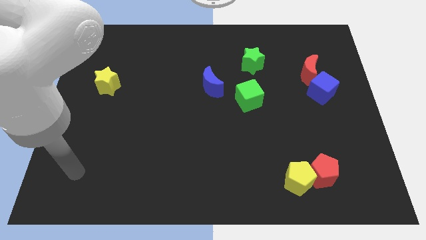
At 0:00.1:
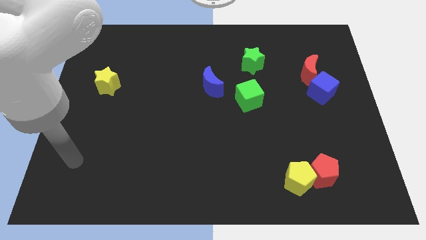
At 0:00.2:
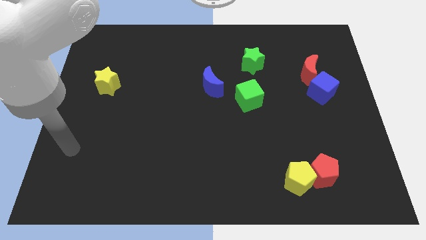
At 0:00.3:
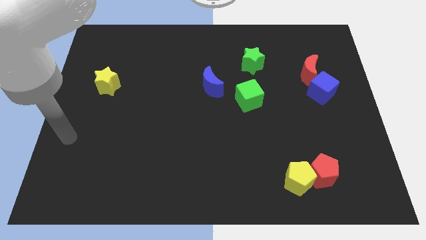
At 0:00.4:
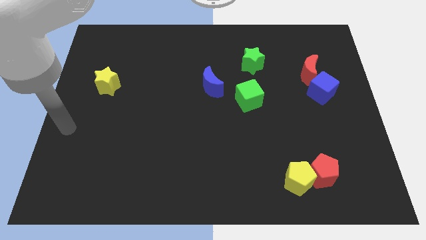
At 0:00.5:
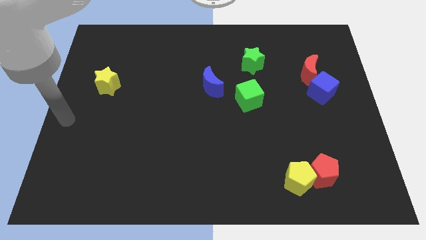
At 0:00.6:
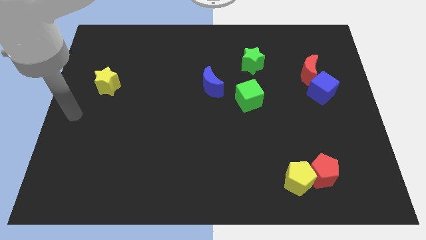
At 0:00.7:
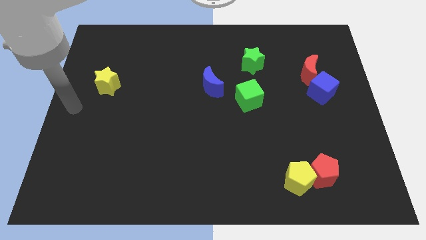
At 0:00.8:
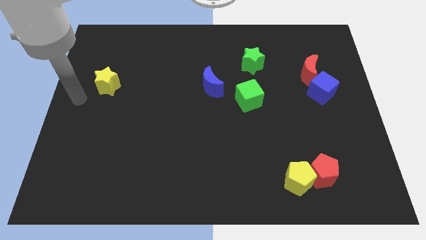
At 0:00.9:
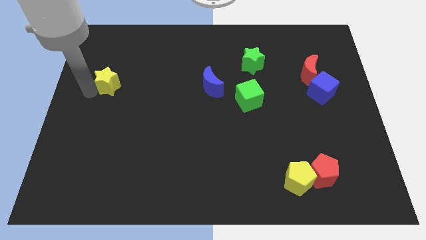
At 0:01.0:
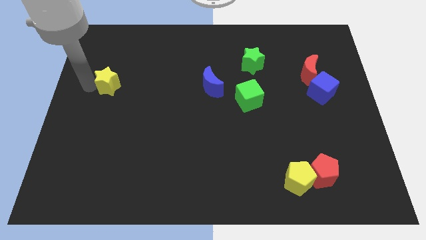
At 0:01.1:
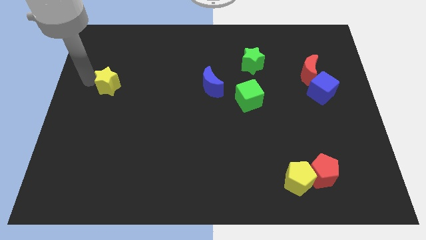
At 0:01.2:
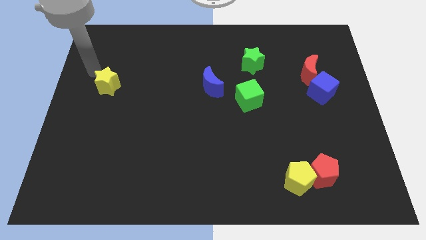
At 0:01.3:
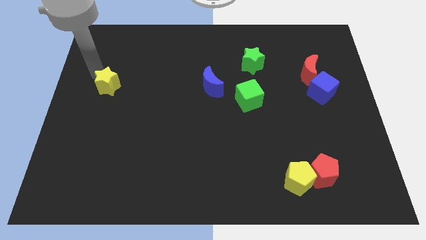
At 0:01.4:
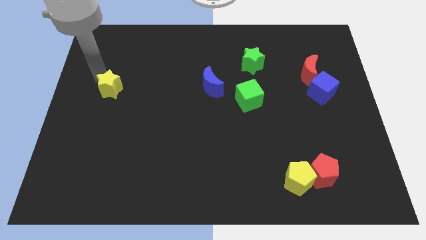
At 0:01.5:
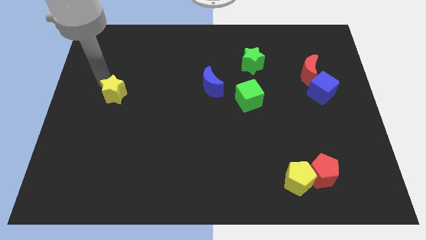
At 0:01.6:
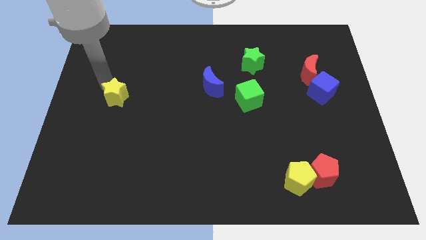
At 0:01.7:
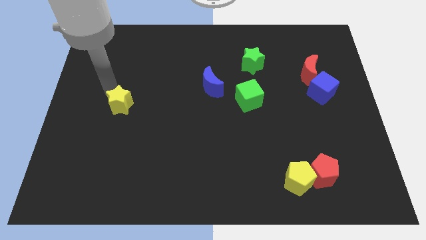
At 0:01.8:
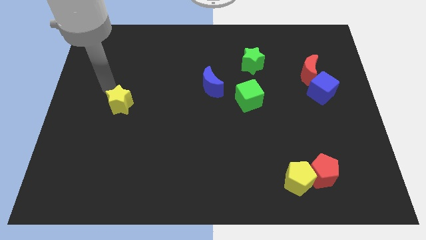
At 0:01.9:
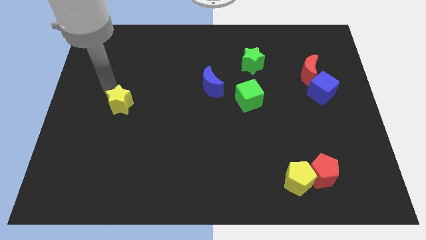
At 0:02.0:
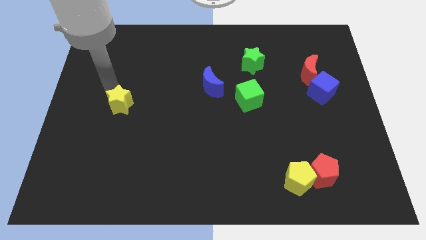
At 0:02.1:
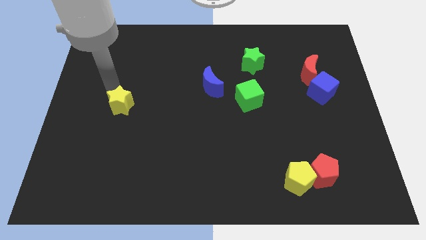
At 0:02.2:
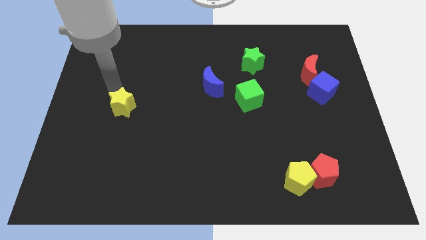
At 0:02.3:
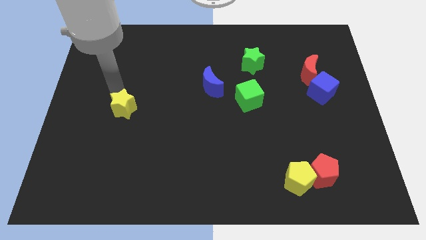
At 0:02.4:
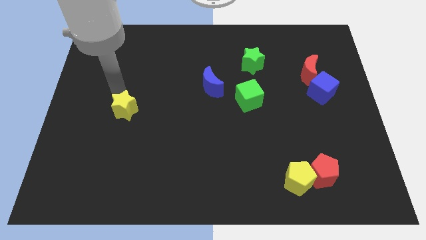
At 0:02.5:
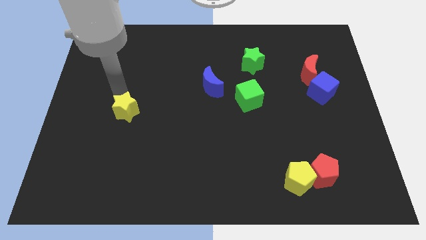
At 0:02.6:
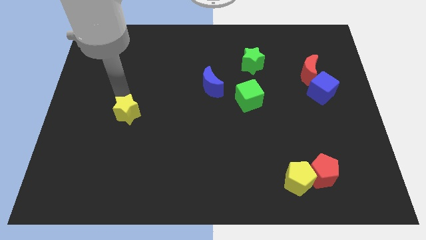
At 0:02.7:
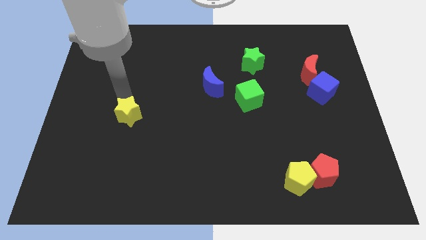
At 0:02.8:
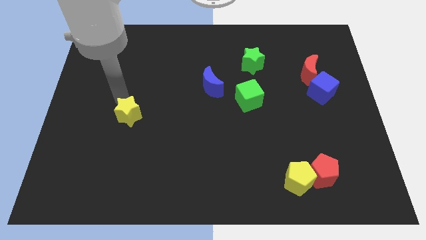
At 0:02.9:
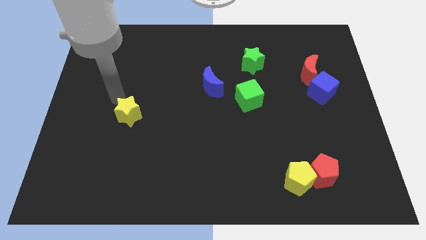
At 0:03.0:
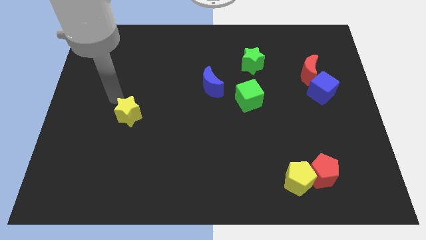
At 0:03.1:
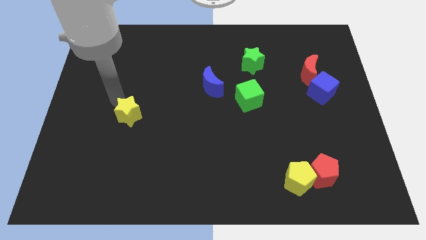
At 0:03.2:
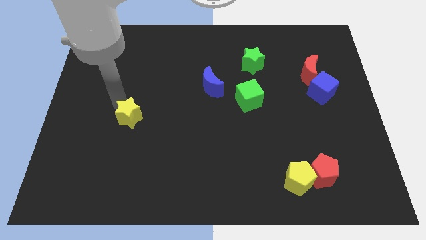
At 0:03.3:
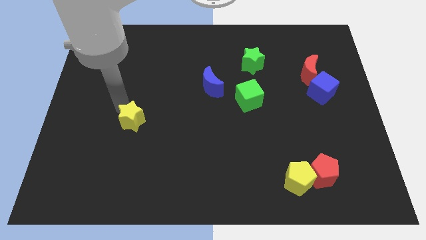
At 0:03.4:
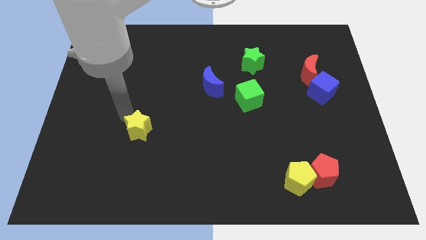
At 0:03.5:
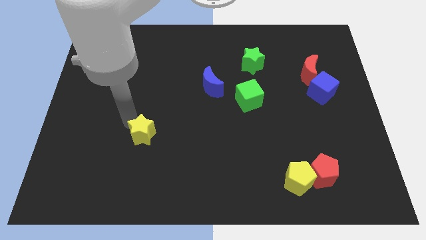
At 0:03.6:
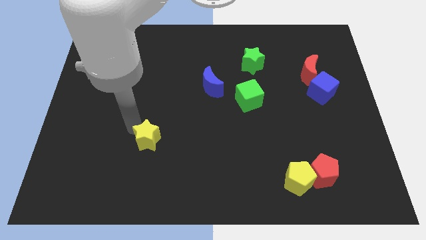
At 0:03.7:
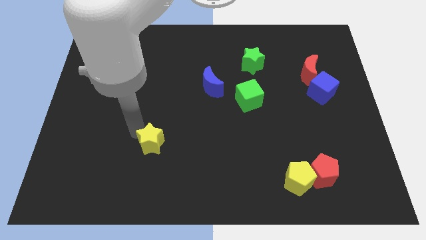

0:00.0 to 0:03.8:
push the yellow star diagonally downwards and to the right

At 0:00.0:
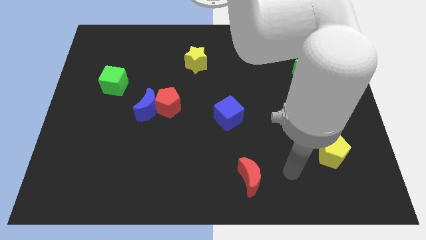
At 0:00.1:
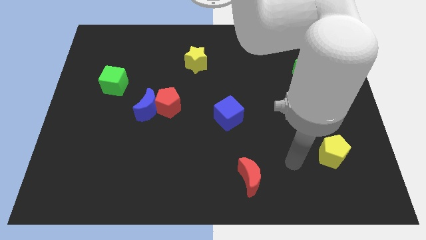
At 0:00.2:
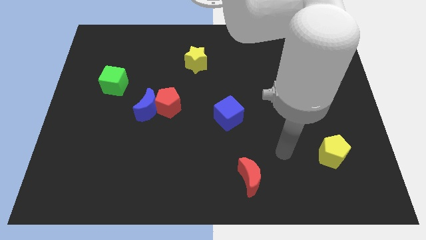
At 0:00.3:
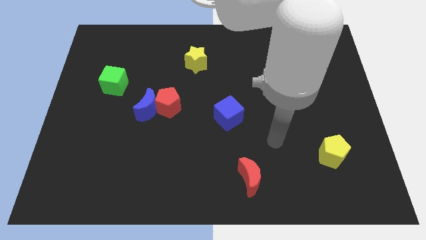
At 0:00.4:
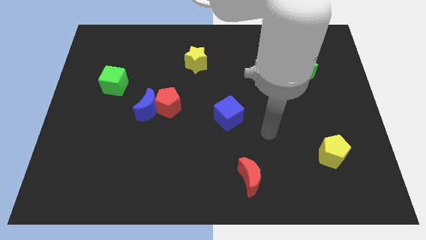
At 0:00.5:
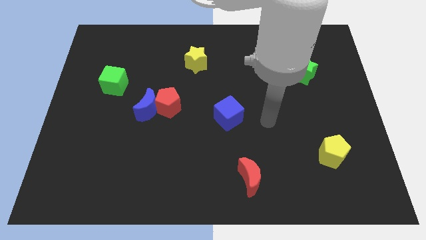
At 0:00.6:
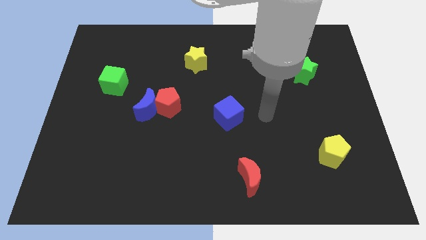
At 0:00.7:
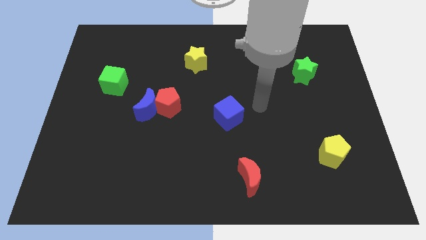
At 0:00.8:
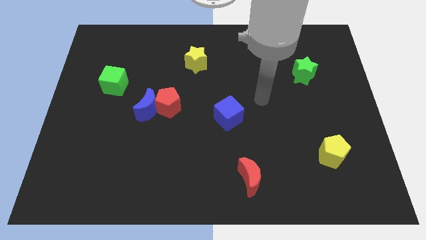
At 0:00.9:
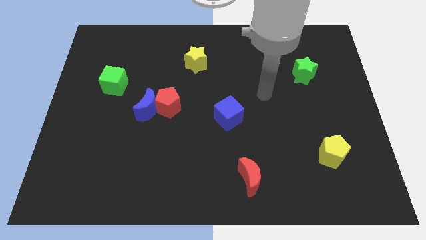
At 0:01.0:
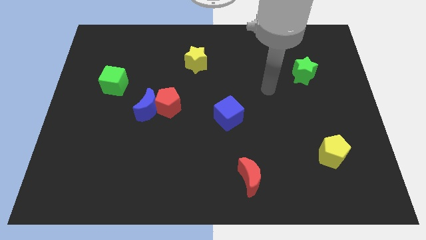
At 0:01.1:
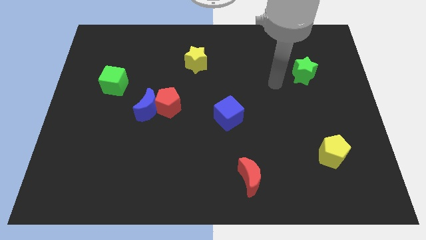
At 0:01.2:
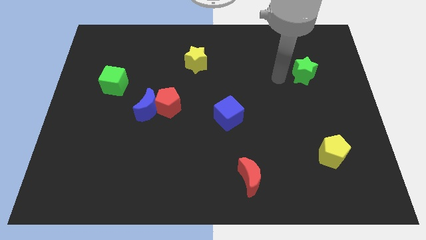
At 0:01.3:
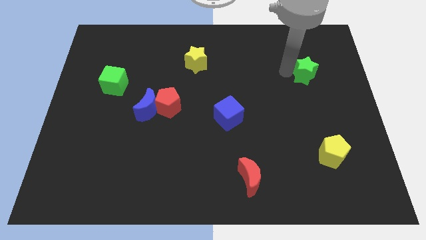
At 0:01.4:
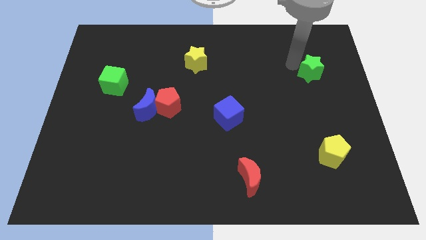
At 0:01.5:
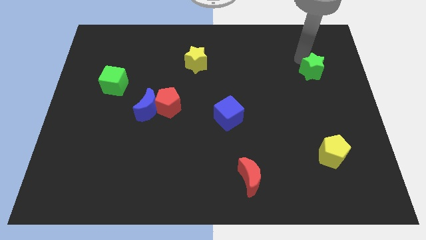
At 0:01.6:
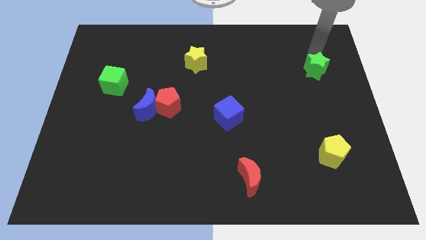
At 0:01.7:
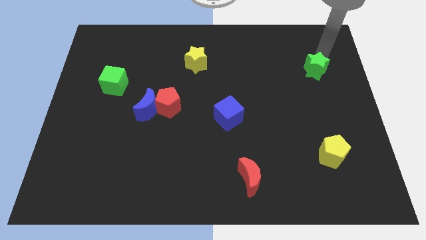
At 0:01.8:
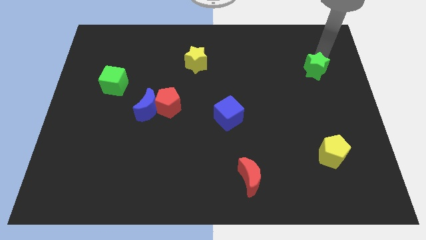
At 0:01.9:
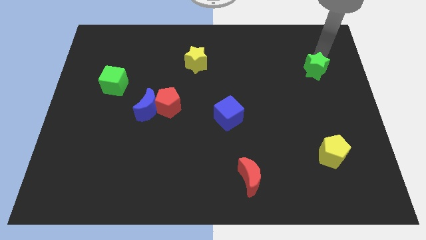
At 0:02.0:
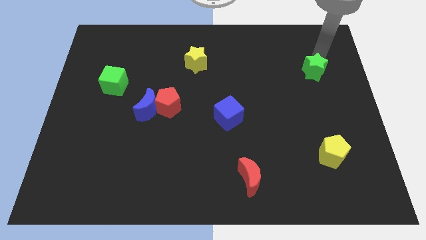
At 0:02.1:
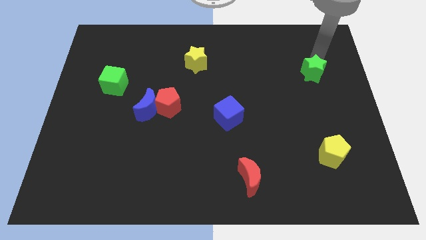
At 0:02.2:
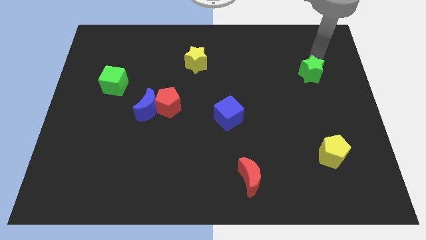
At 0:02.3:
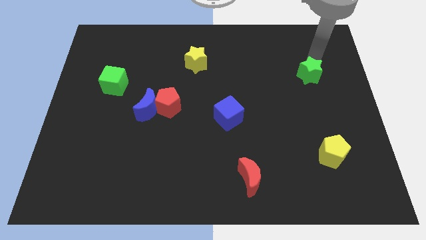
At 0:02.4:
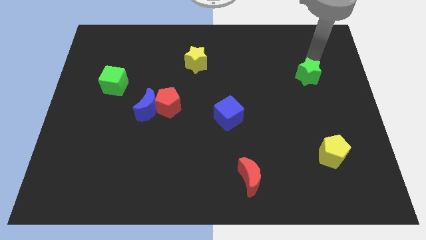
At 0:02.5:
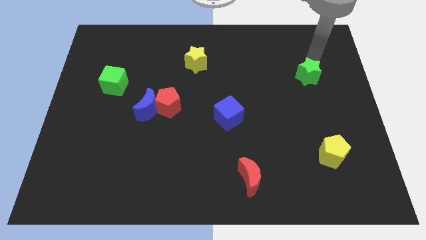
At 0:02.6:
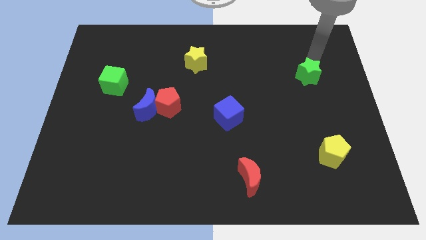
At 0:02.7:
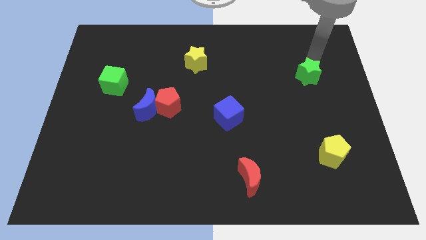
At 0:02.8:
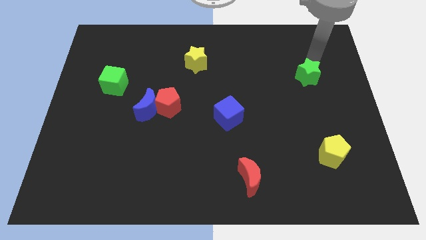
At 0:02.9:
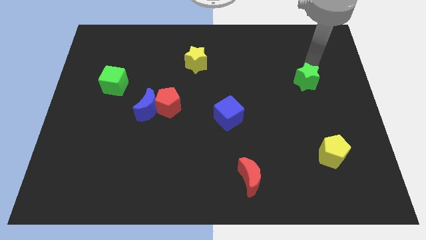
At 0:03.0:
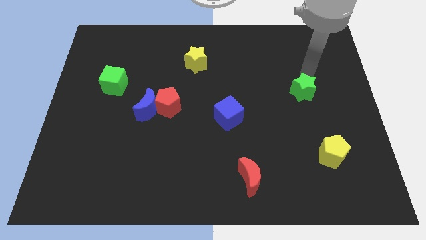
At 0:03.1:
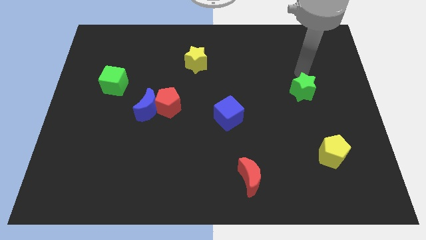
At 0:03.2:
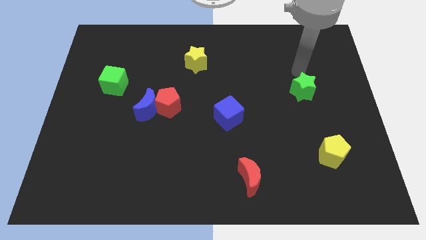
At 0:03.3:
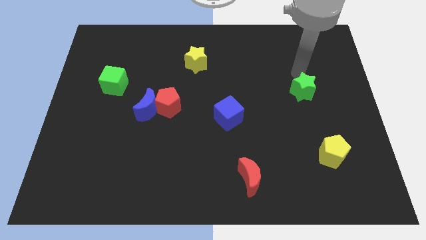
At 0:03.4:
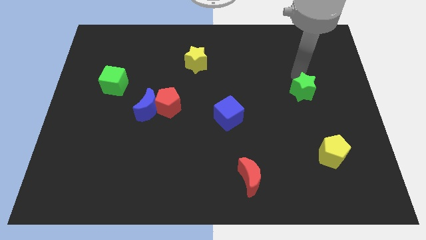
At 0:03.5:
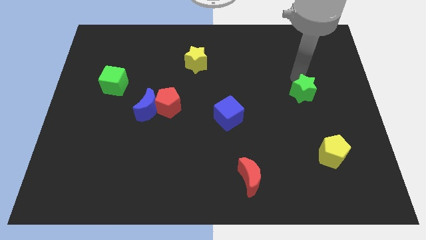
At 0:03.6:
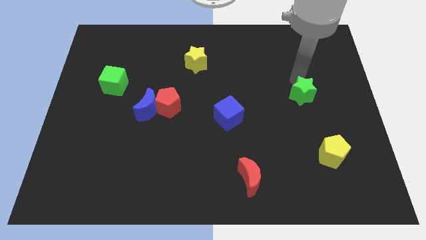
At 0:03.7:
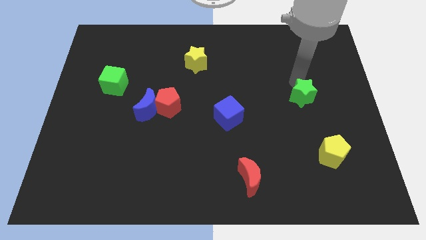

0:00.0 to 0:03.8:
slightly slide the green star down

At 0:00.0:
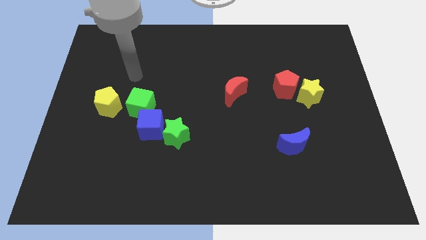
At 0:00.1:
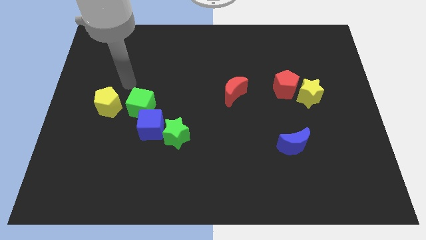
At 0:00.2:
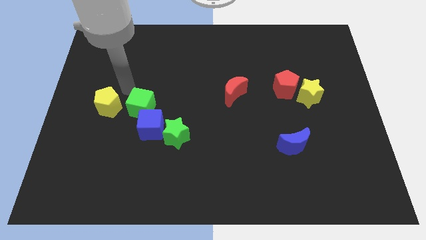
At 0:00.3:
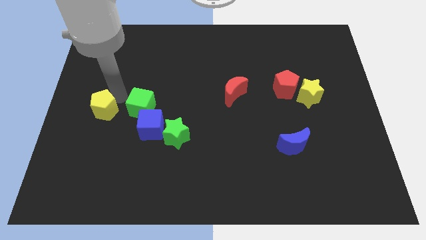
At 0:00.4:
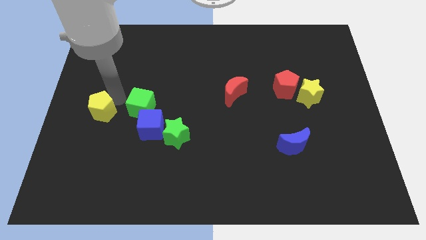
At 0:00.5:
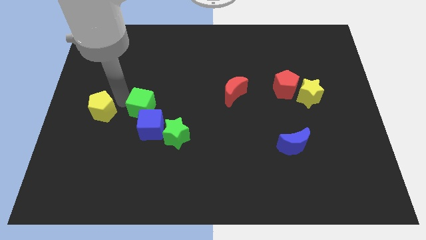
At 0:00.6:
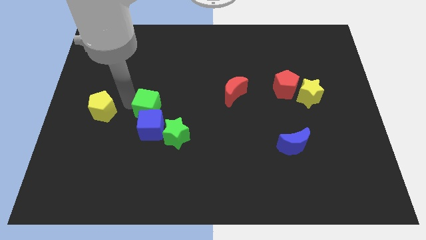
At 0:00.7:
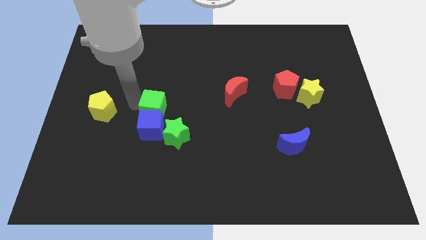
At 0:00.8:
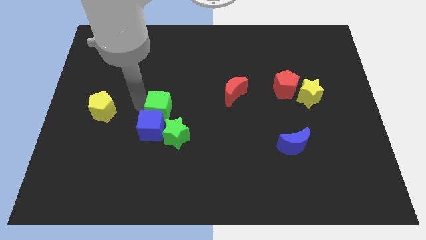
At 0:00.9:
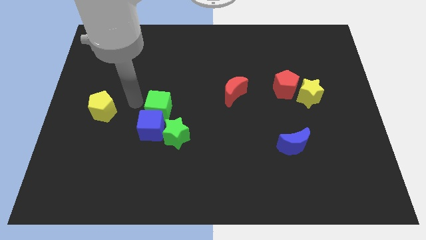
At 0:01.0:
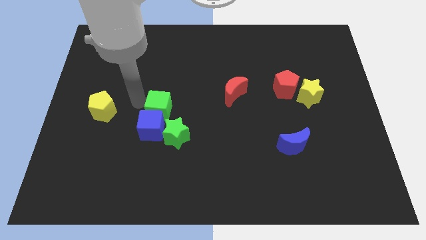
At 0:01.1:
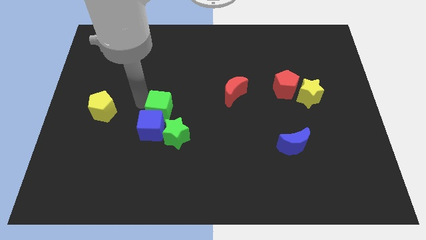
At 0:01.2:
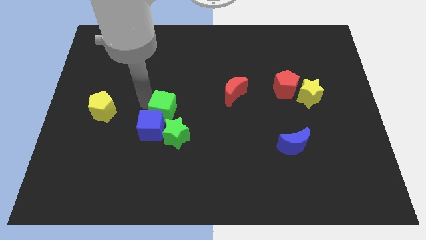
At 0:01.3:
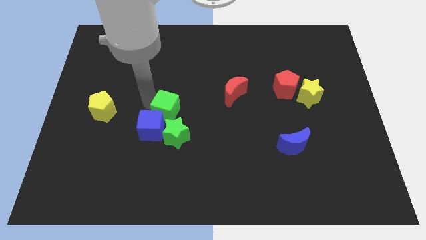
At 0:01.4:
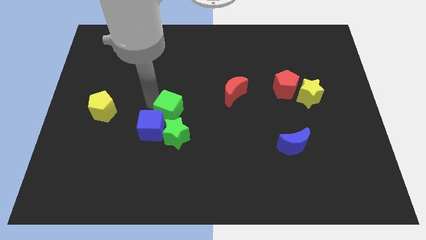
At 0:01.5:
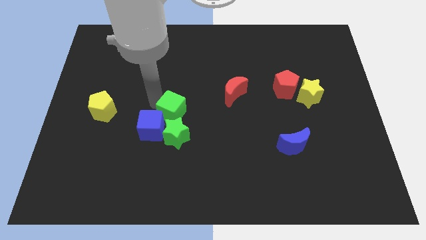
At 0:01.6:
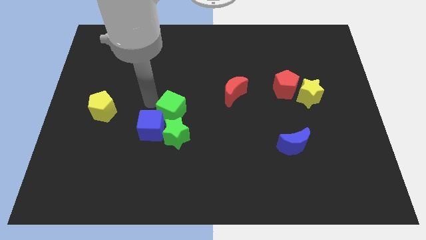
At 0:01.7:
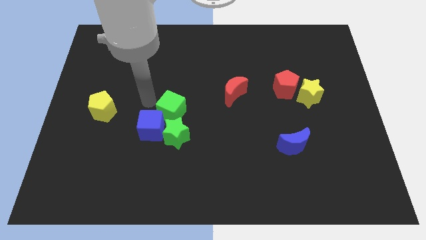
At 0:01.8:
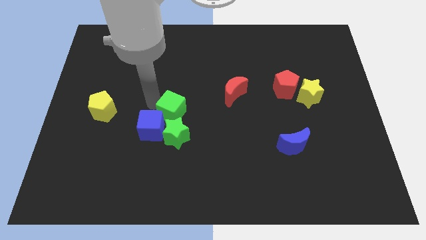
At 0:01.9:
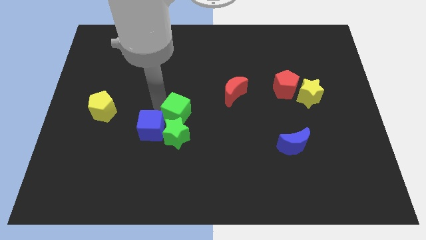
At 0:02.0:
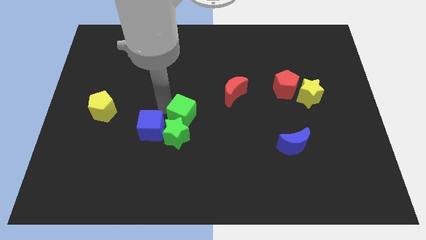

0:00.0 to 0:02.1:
slide the green cube a bit down and to the right
